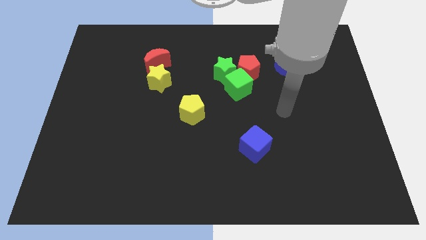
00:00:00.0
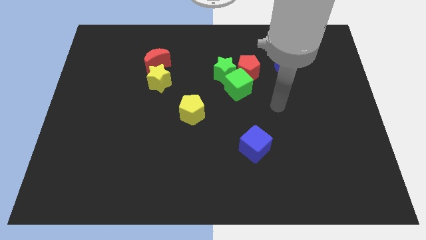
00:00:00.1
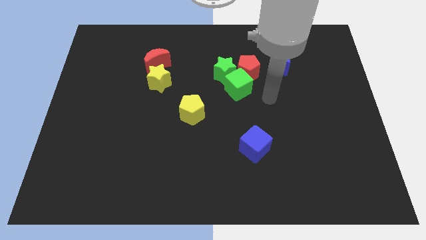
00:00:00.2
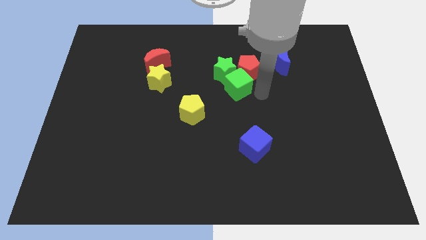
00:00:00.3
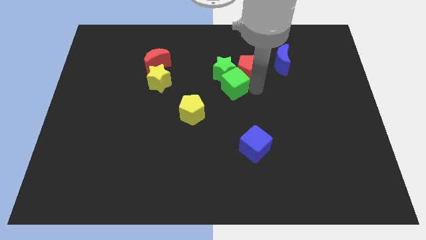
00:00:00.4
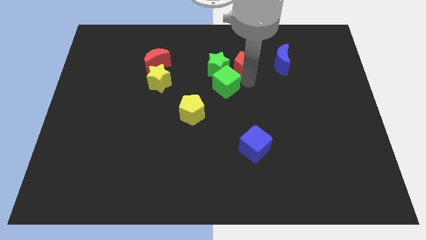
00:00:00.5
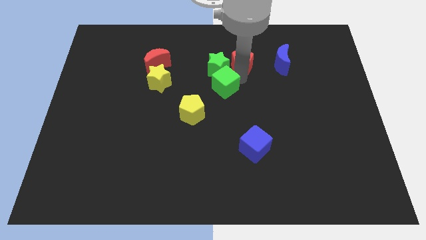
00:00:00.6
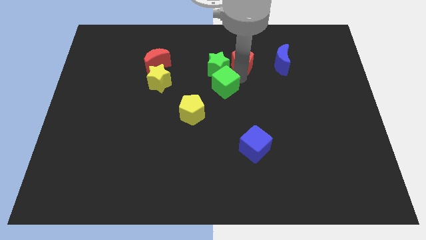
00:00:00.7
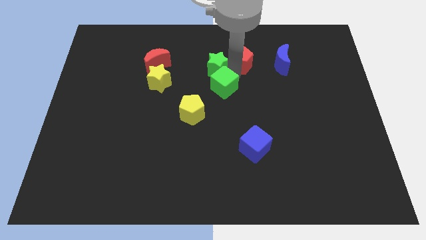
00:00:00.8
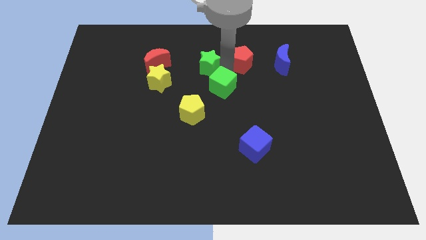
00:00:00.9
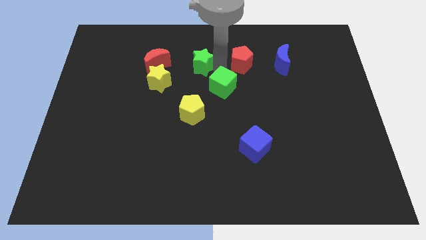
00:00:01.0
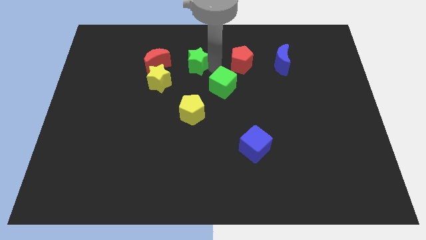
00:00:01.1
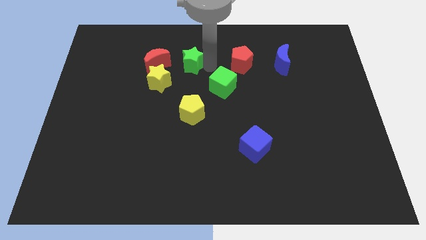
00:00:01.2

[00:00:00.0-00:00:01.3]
move the green star away from the green cube and red pentagon

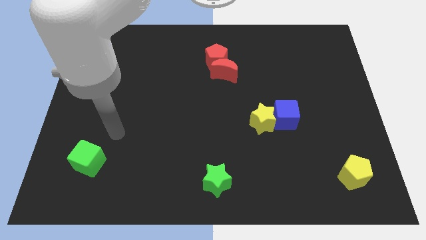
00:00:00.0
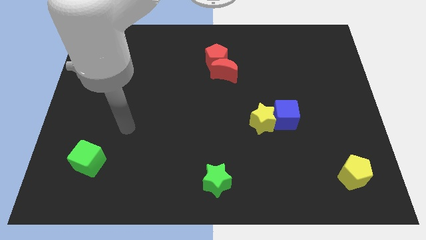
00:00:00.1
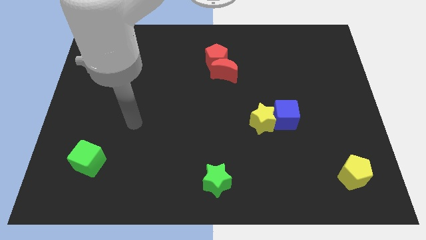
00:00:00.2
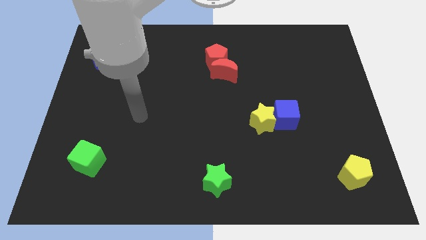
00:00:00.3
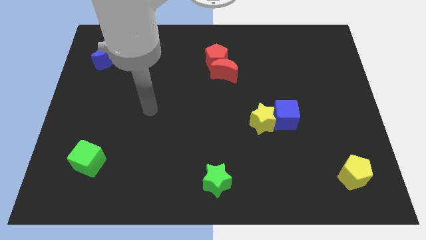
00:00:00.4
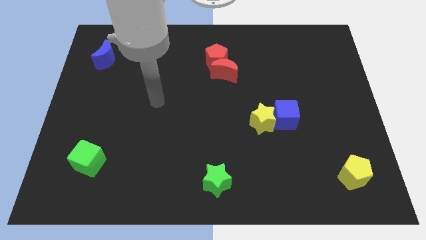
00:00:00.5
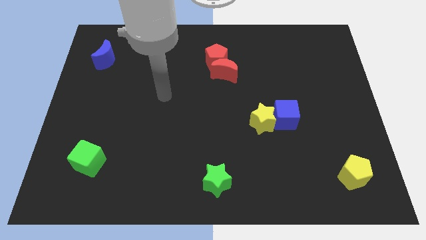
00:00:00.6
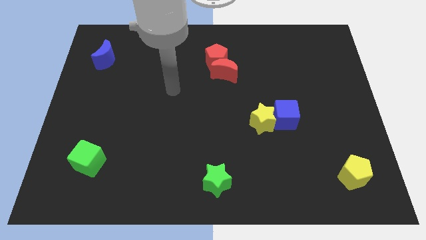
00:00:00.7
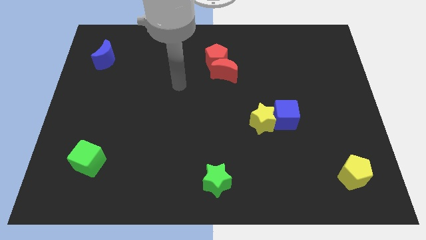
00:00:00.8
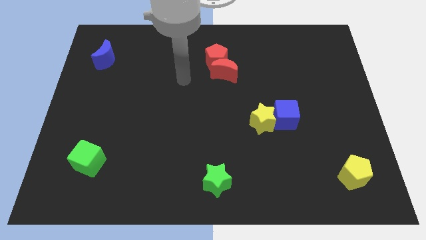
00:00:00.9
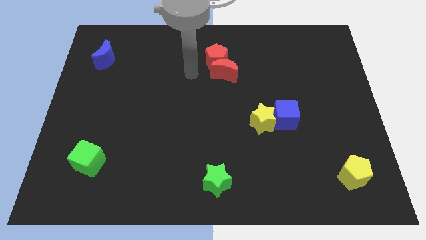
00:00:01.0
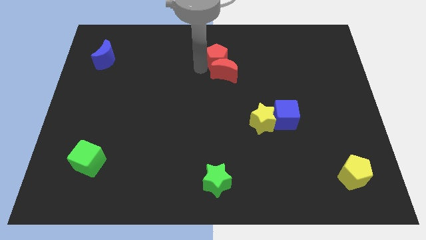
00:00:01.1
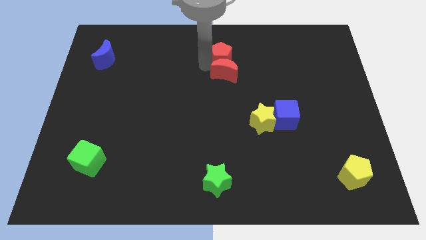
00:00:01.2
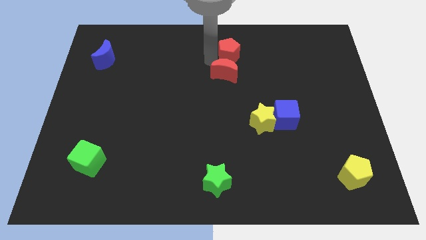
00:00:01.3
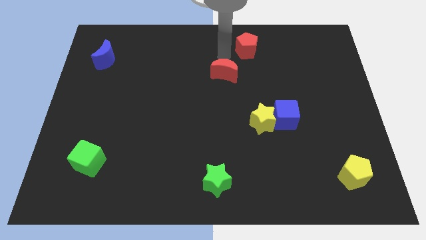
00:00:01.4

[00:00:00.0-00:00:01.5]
separate the red moon from the red pentagon

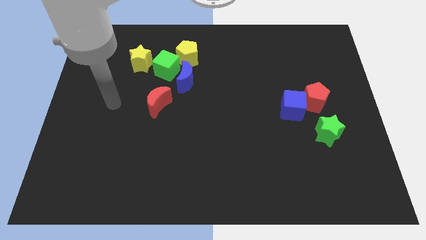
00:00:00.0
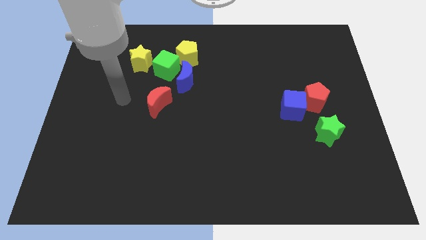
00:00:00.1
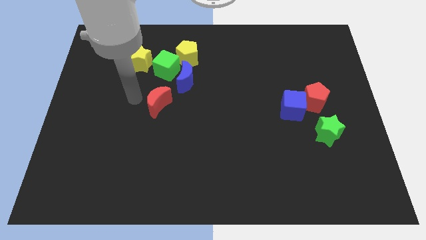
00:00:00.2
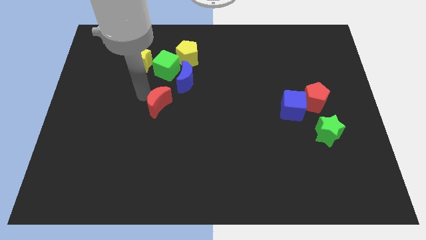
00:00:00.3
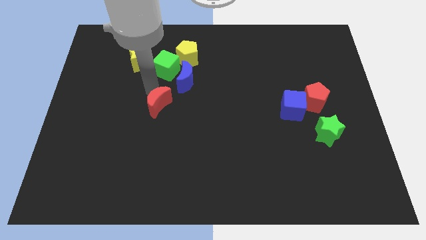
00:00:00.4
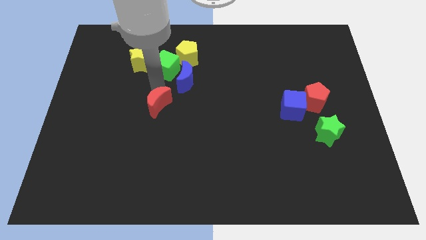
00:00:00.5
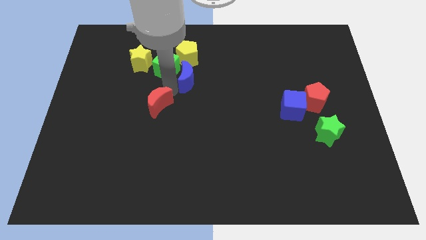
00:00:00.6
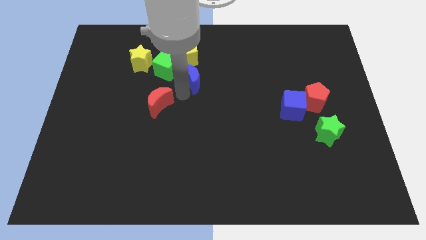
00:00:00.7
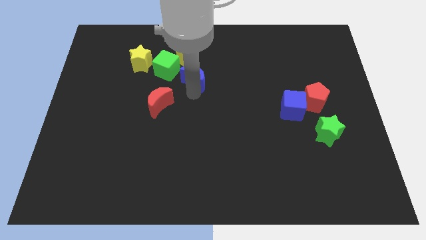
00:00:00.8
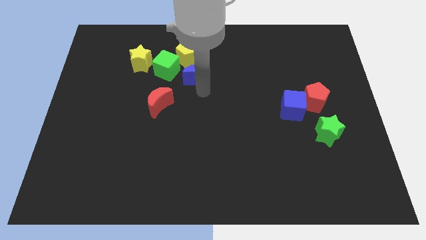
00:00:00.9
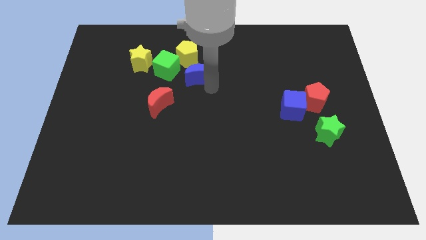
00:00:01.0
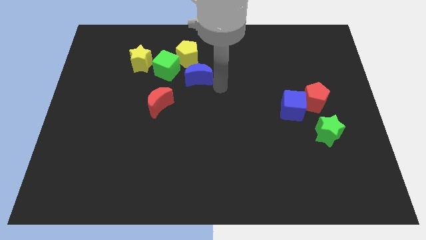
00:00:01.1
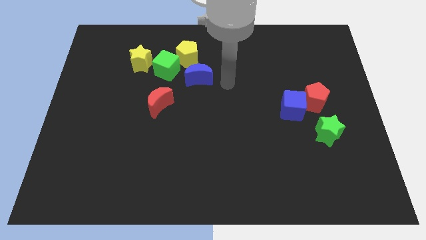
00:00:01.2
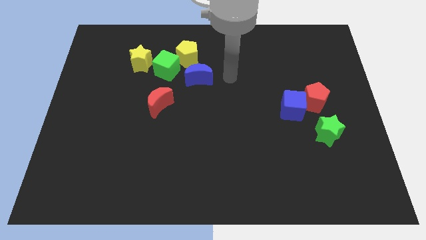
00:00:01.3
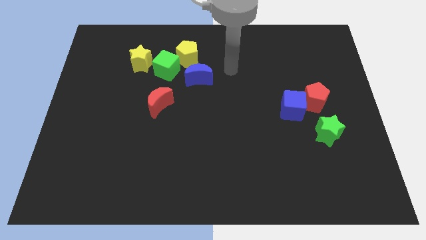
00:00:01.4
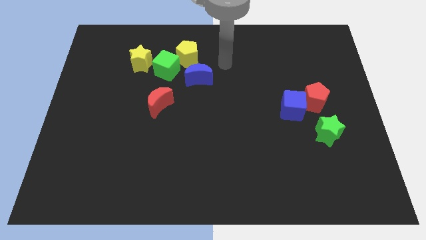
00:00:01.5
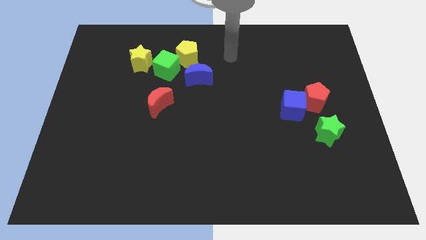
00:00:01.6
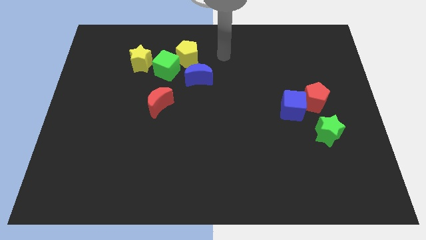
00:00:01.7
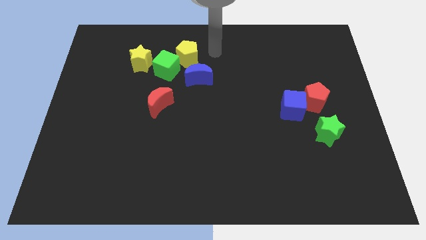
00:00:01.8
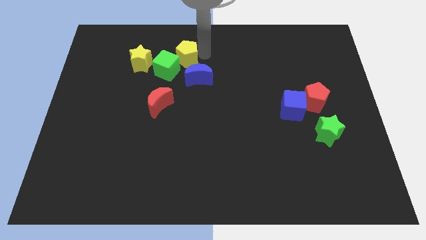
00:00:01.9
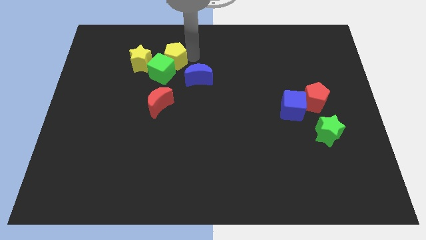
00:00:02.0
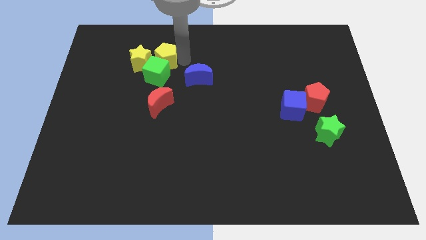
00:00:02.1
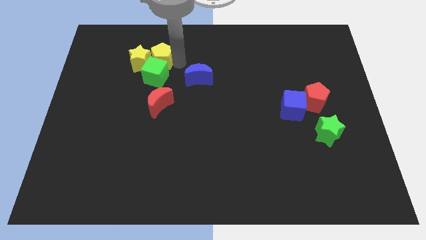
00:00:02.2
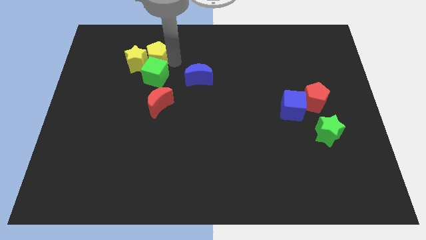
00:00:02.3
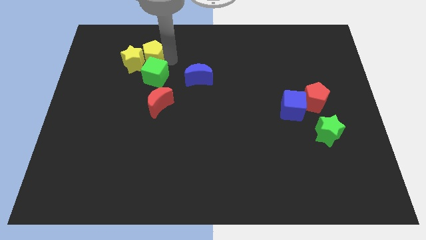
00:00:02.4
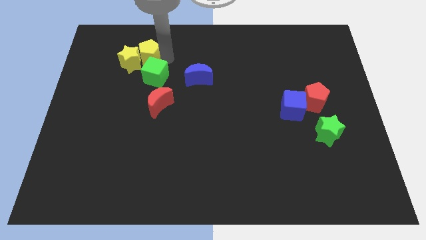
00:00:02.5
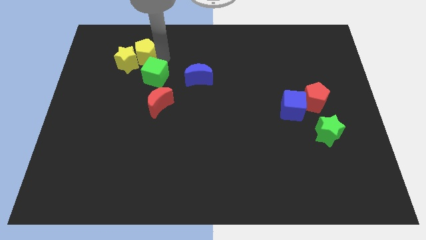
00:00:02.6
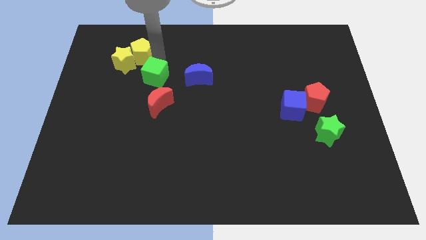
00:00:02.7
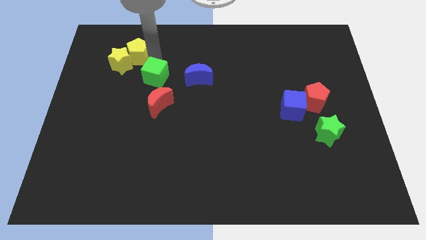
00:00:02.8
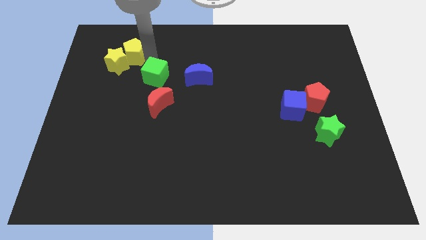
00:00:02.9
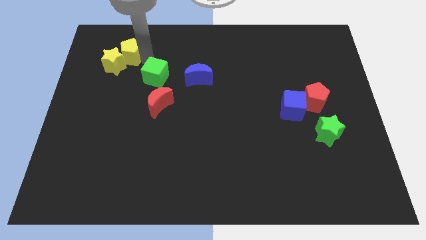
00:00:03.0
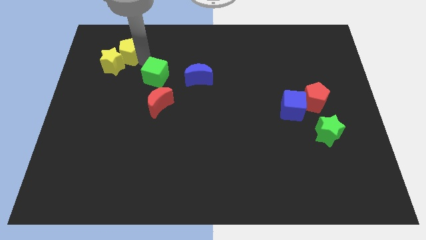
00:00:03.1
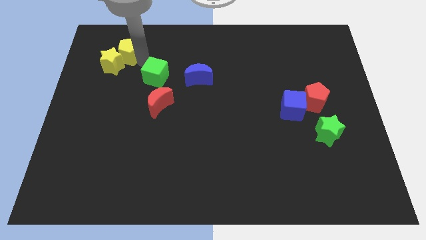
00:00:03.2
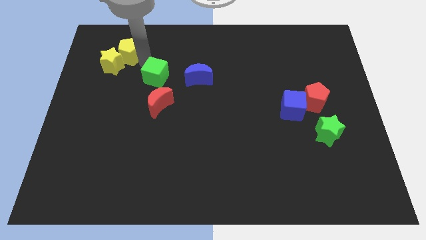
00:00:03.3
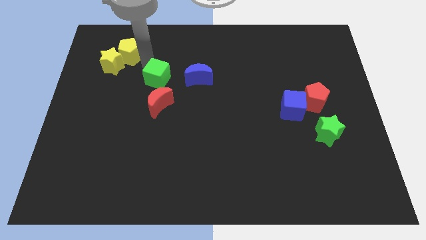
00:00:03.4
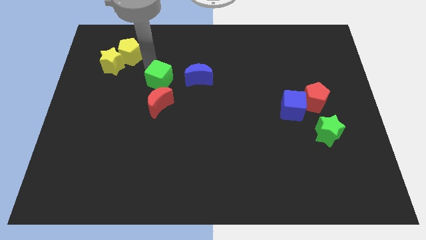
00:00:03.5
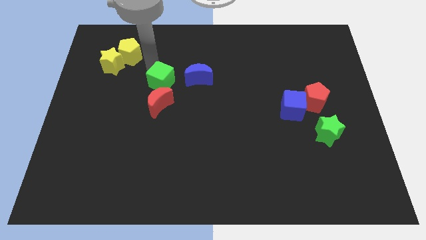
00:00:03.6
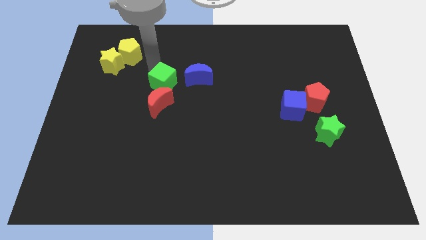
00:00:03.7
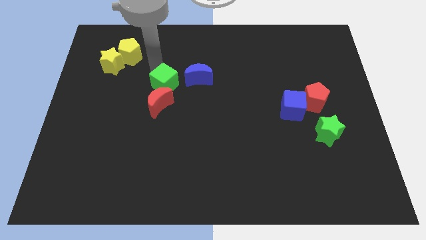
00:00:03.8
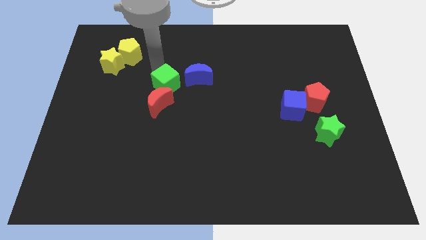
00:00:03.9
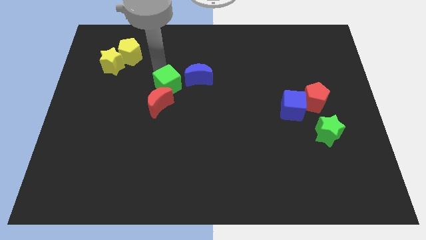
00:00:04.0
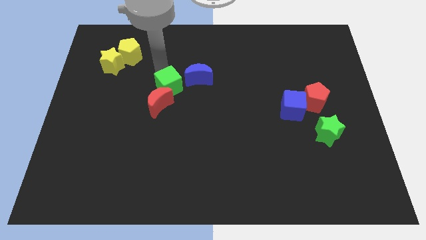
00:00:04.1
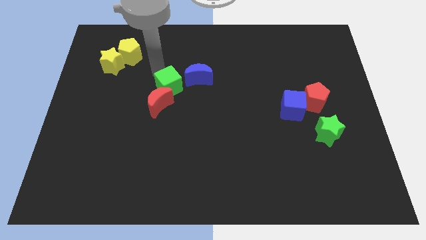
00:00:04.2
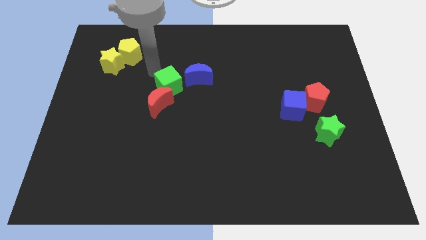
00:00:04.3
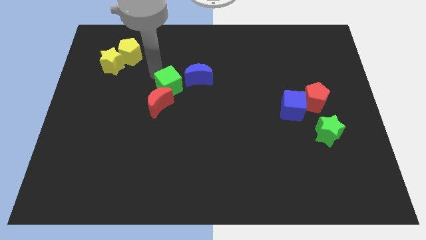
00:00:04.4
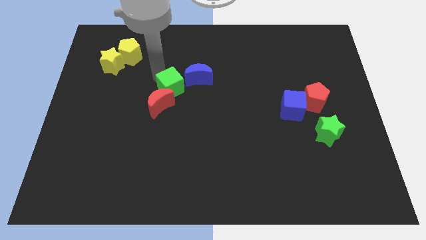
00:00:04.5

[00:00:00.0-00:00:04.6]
separate the green cube from the group

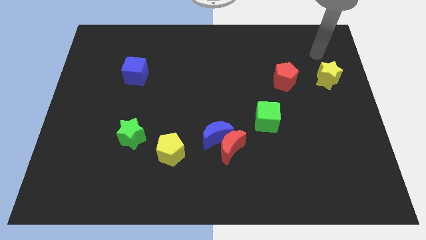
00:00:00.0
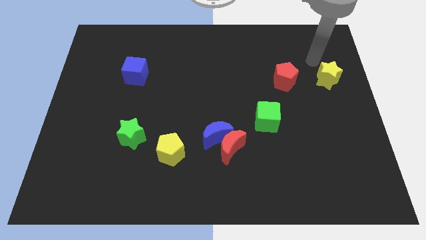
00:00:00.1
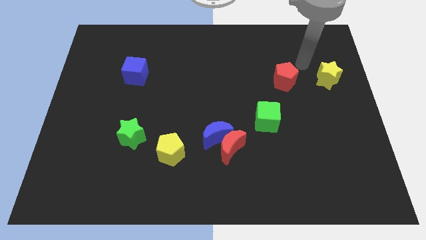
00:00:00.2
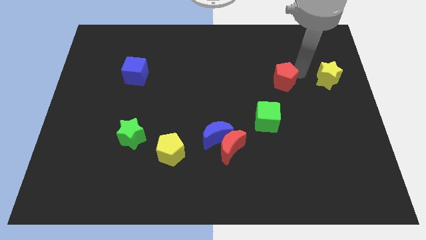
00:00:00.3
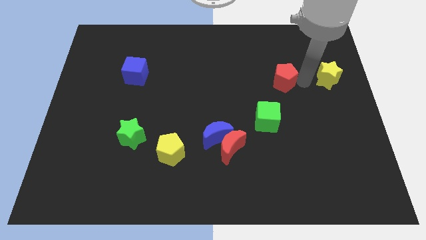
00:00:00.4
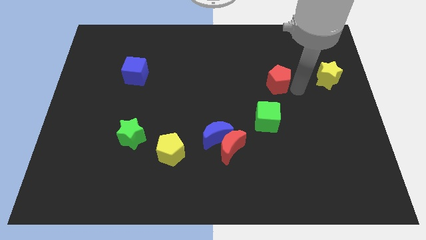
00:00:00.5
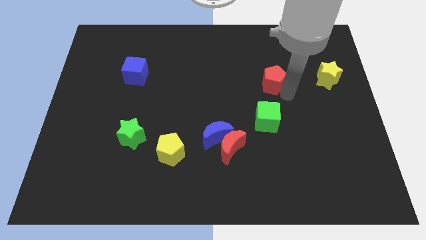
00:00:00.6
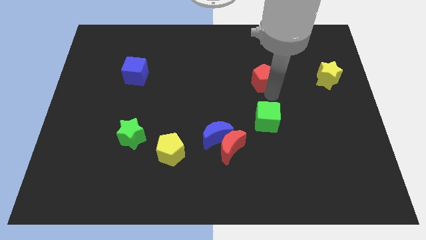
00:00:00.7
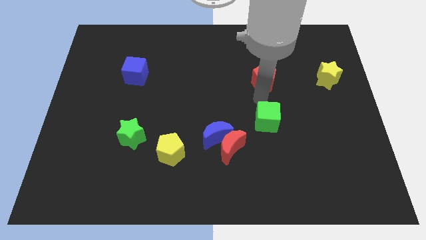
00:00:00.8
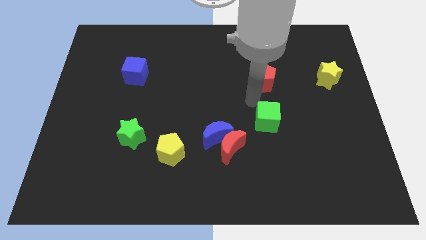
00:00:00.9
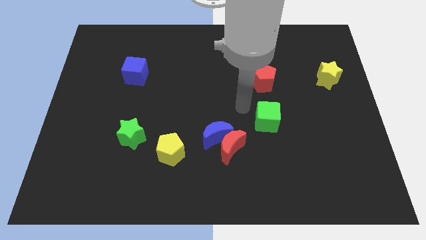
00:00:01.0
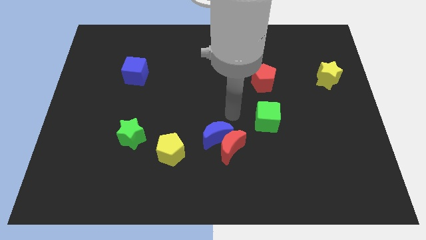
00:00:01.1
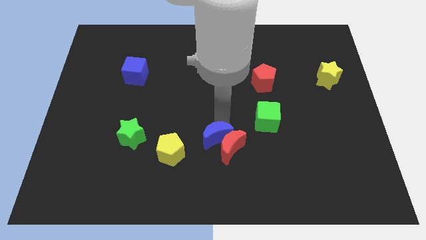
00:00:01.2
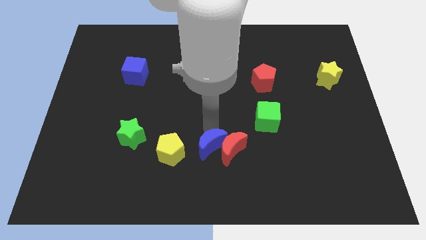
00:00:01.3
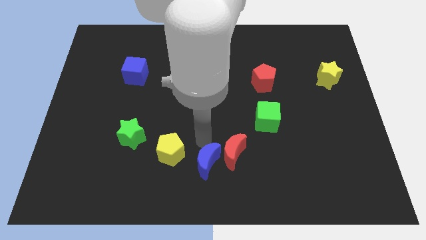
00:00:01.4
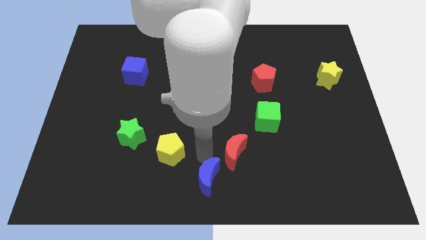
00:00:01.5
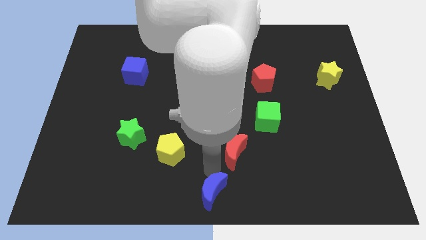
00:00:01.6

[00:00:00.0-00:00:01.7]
pull the red moon apart from the blue moon

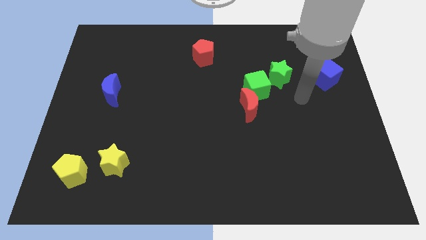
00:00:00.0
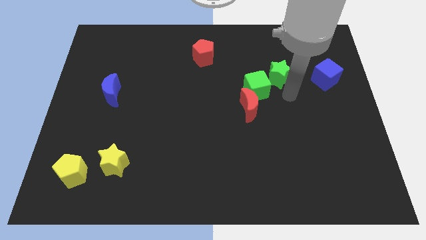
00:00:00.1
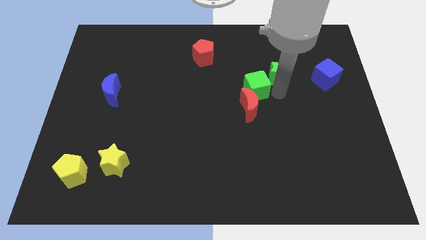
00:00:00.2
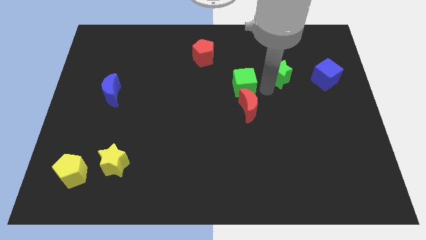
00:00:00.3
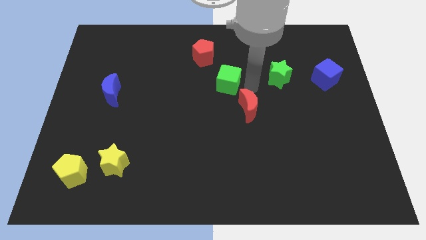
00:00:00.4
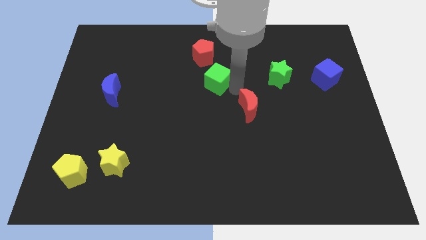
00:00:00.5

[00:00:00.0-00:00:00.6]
separate the red moon from the green cube
